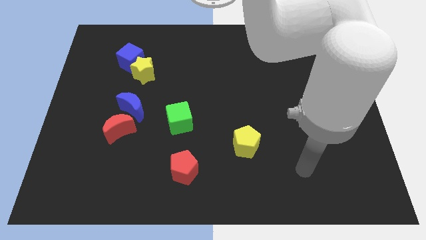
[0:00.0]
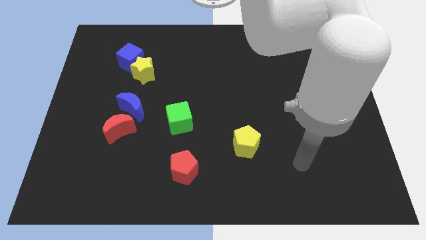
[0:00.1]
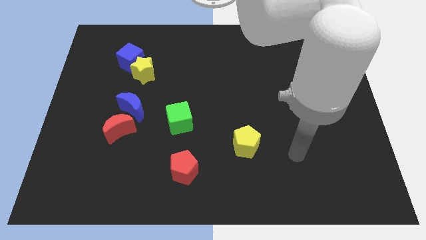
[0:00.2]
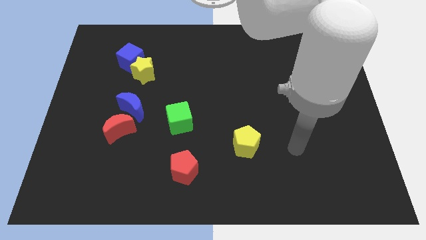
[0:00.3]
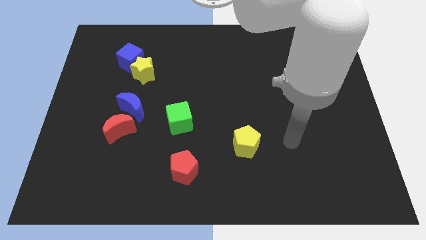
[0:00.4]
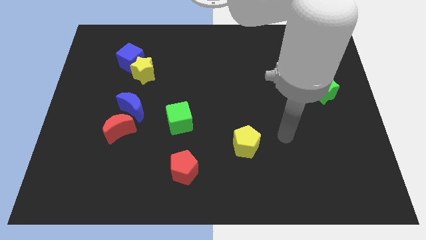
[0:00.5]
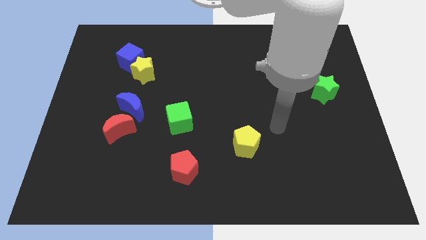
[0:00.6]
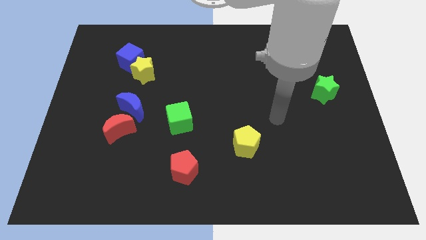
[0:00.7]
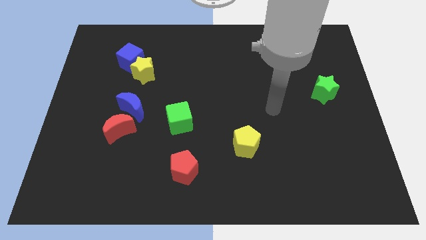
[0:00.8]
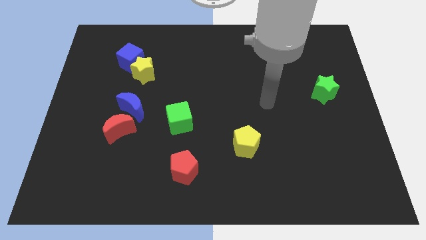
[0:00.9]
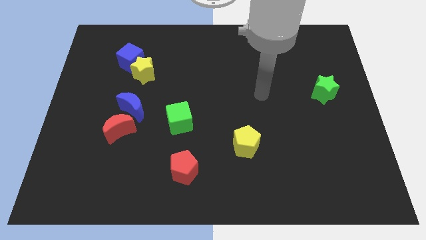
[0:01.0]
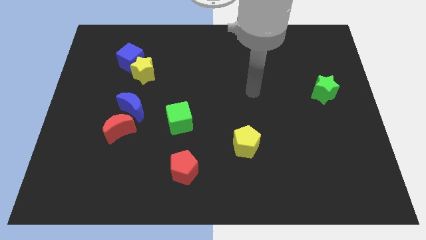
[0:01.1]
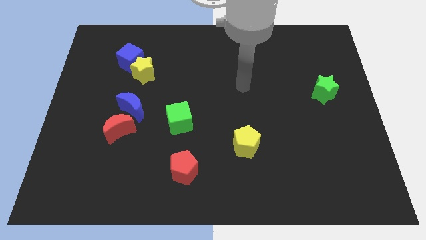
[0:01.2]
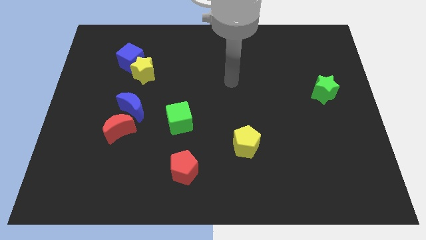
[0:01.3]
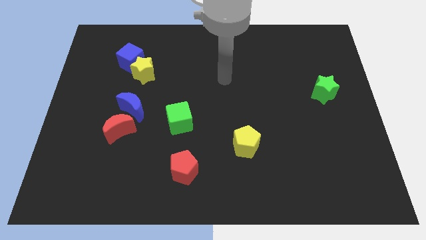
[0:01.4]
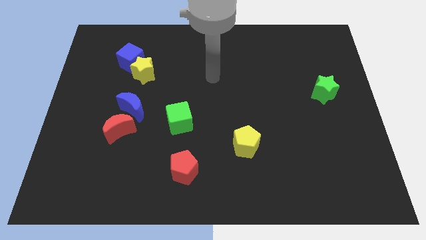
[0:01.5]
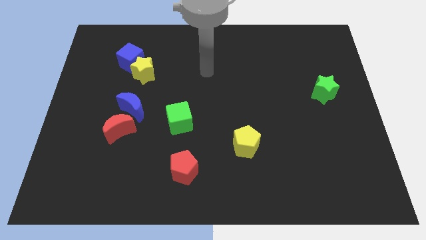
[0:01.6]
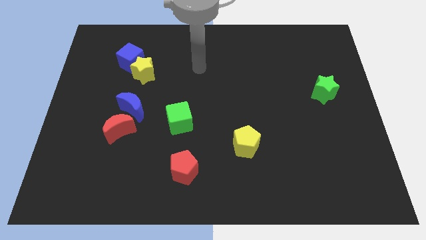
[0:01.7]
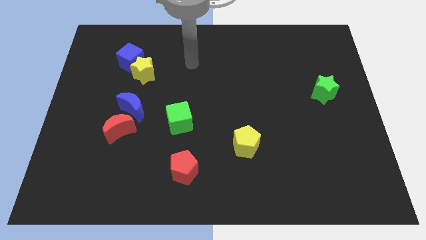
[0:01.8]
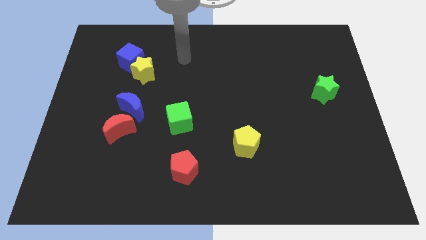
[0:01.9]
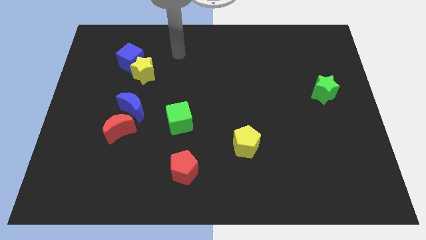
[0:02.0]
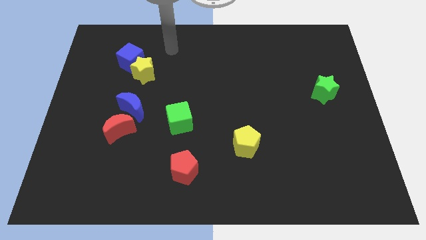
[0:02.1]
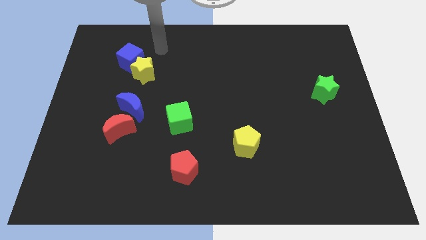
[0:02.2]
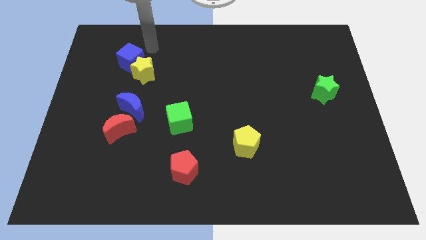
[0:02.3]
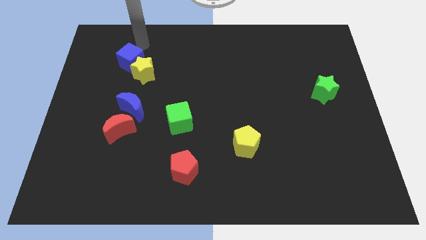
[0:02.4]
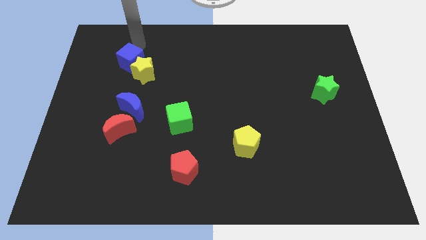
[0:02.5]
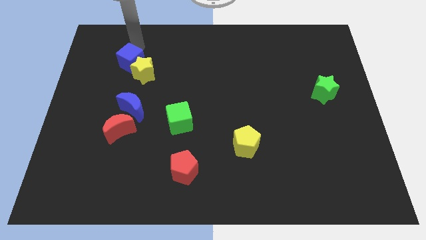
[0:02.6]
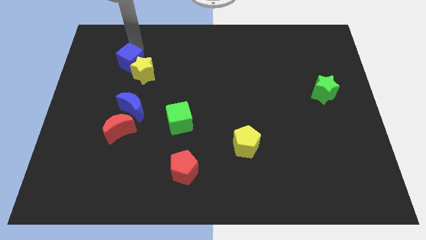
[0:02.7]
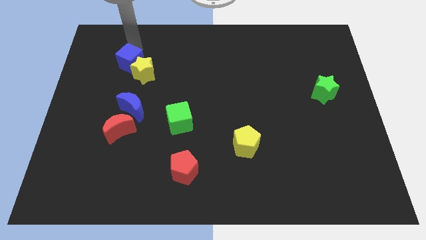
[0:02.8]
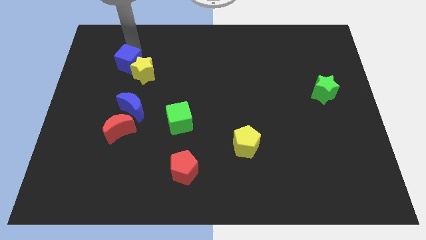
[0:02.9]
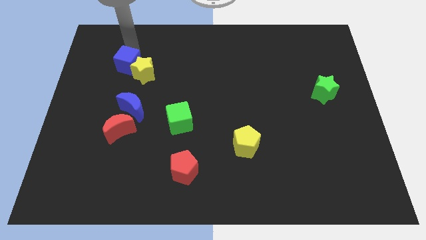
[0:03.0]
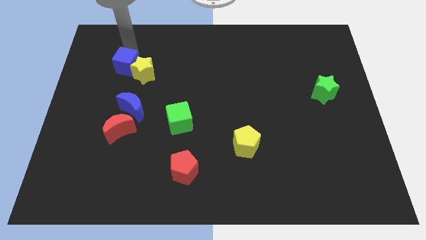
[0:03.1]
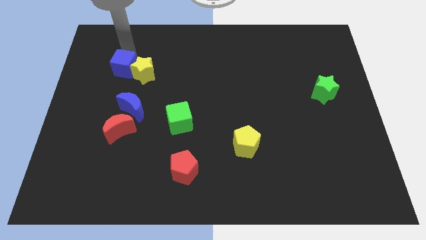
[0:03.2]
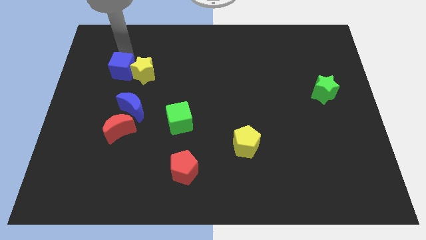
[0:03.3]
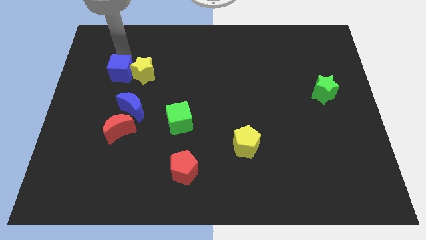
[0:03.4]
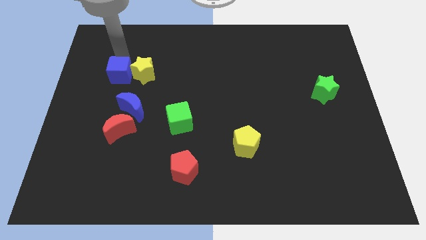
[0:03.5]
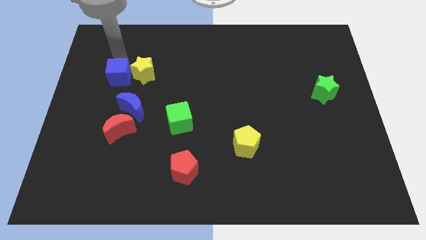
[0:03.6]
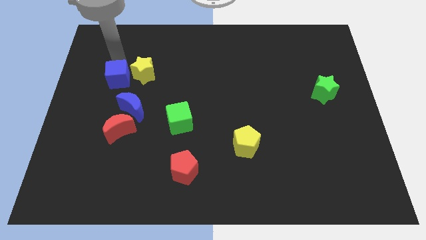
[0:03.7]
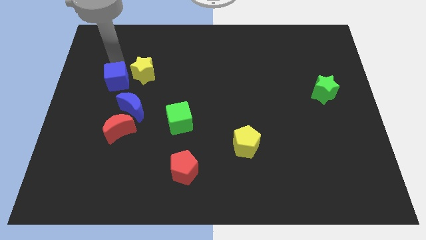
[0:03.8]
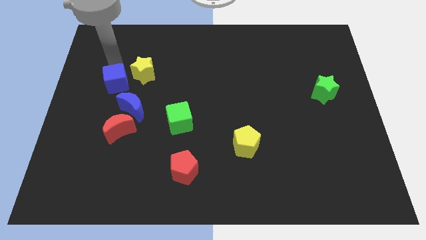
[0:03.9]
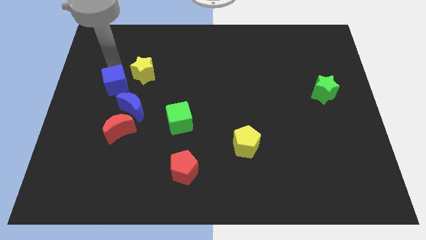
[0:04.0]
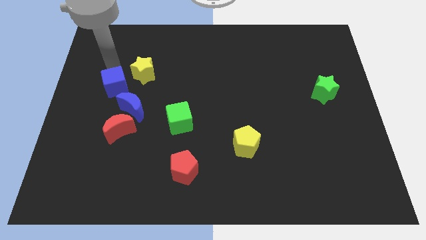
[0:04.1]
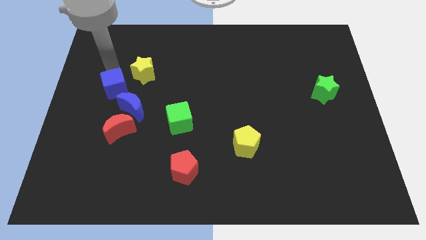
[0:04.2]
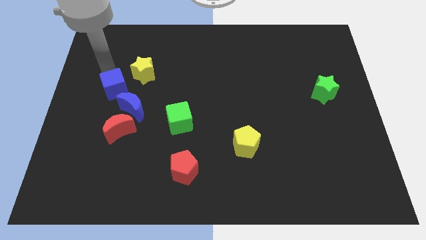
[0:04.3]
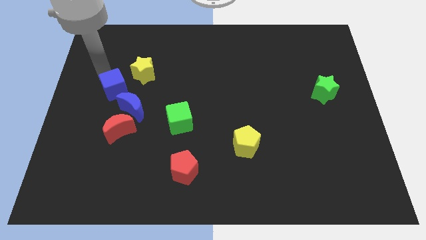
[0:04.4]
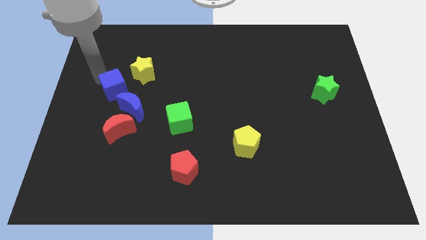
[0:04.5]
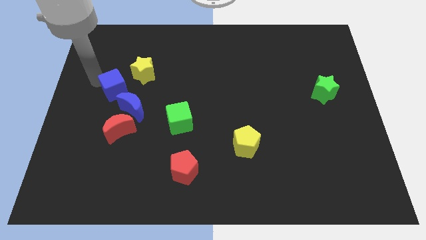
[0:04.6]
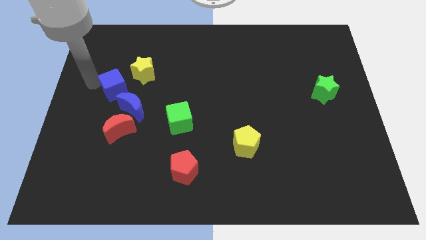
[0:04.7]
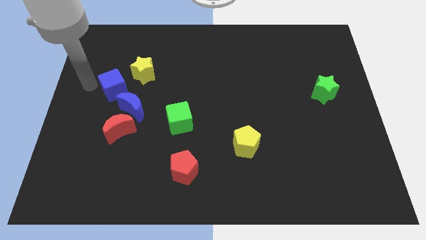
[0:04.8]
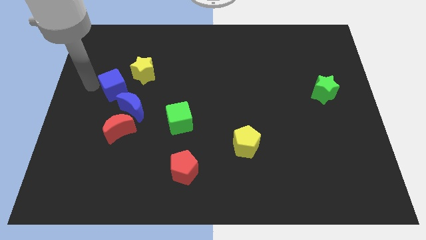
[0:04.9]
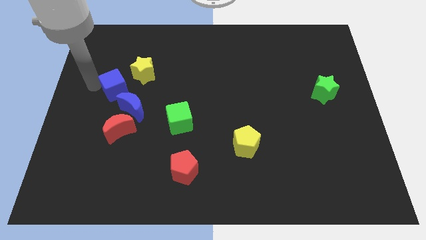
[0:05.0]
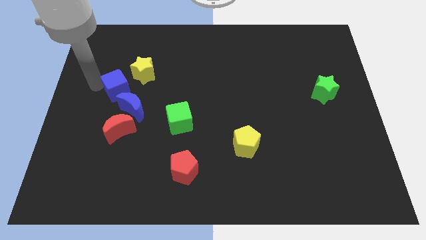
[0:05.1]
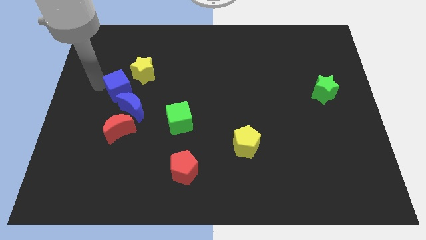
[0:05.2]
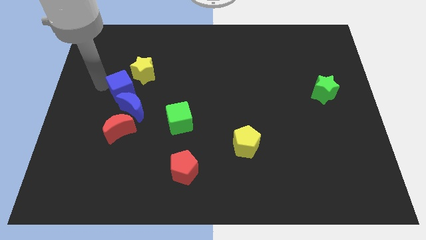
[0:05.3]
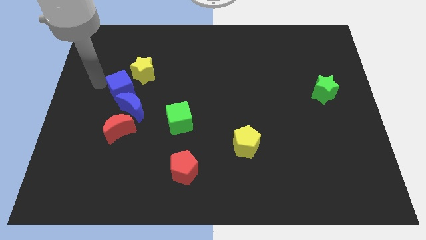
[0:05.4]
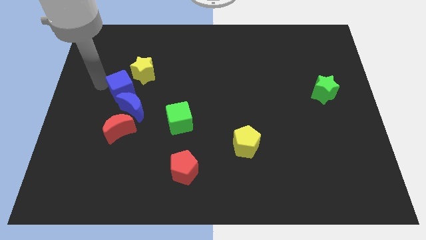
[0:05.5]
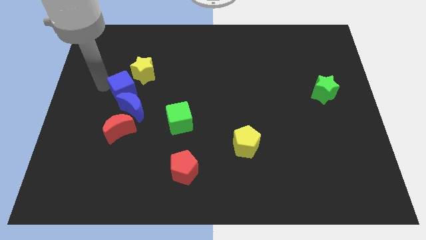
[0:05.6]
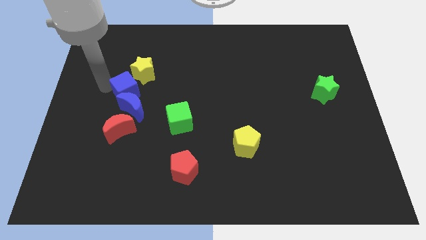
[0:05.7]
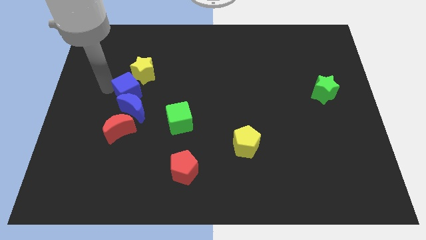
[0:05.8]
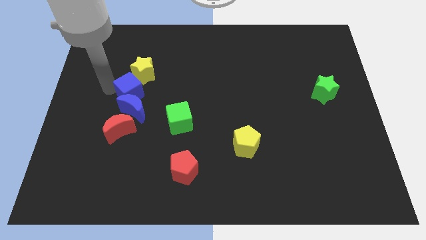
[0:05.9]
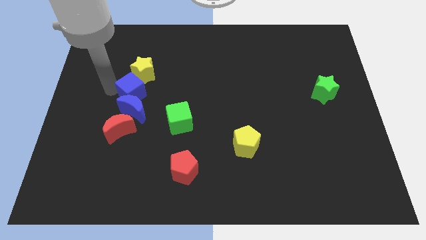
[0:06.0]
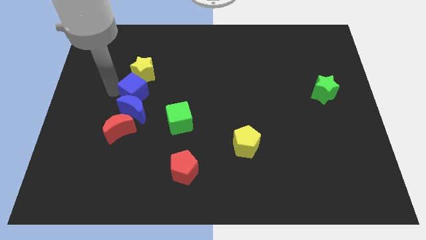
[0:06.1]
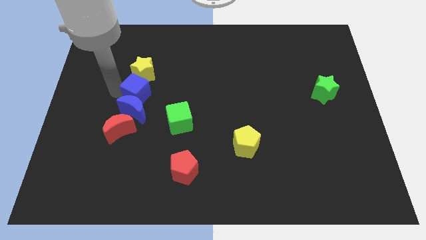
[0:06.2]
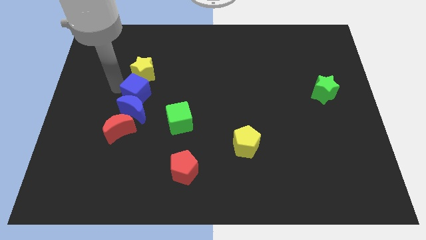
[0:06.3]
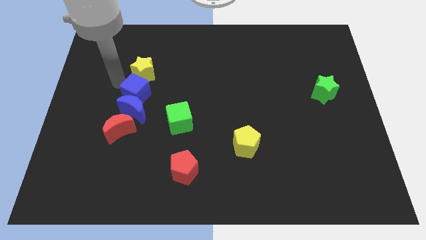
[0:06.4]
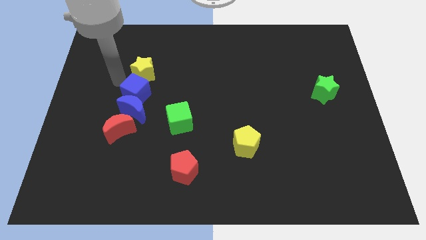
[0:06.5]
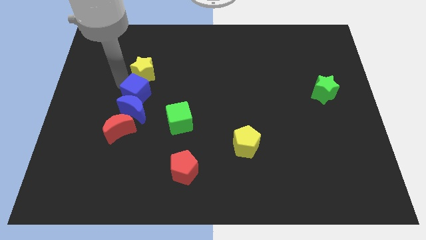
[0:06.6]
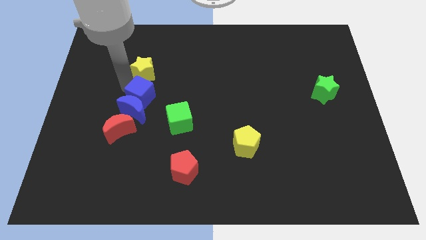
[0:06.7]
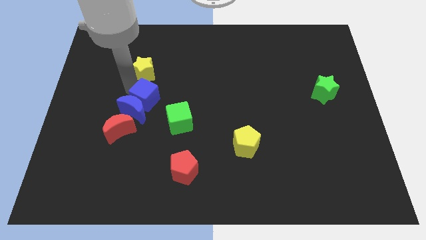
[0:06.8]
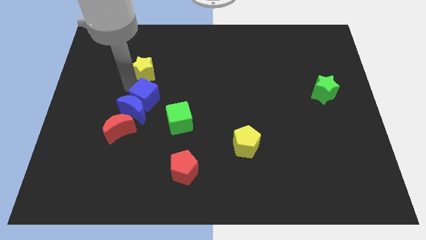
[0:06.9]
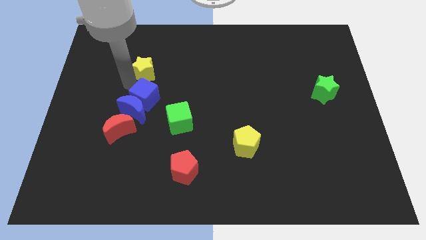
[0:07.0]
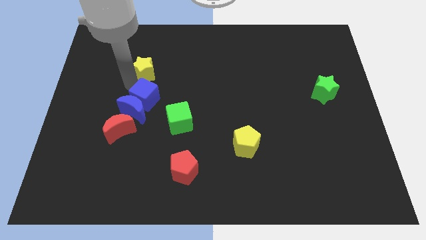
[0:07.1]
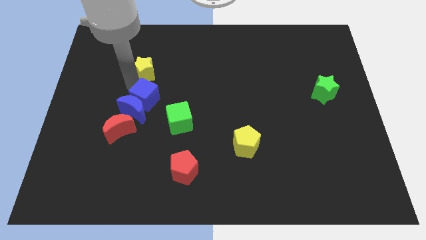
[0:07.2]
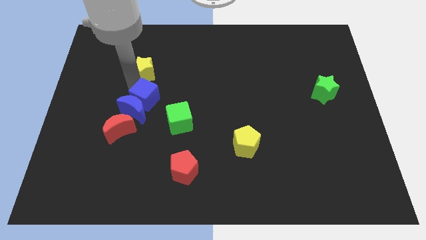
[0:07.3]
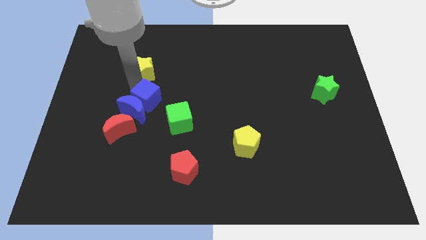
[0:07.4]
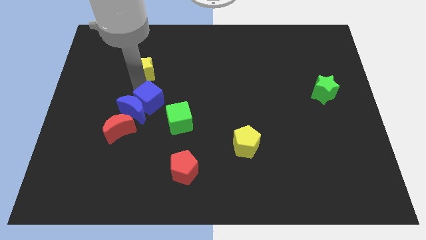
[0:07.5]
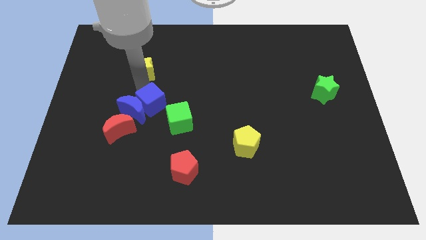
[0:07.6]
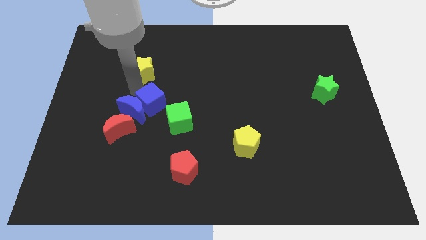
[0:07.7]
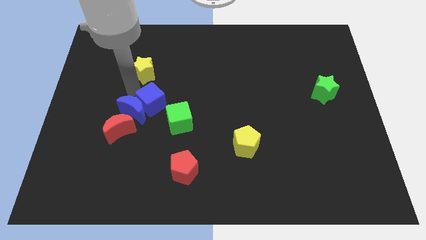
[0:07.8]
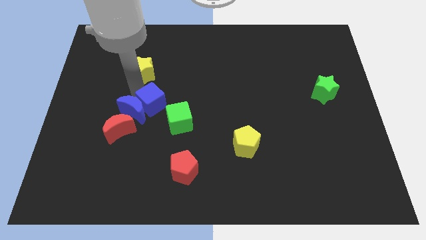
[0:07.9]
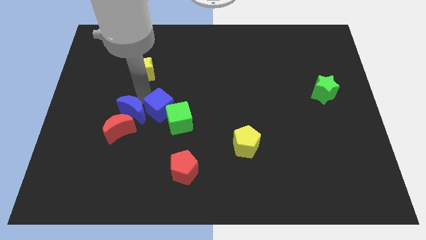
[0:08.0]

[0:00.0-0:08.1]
put the blue cube to the green cube
